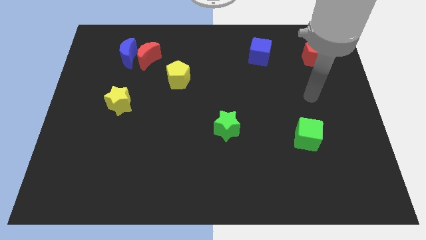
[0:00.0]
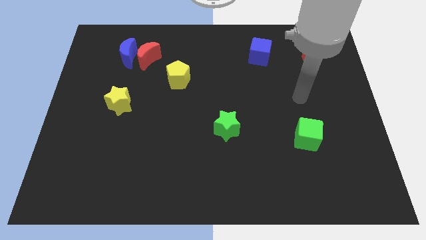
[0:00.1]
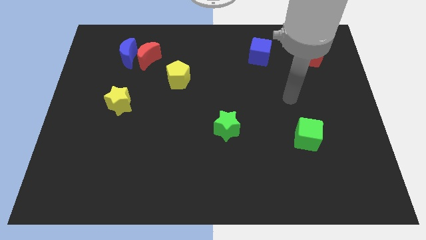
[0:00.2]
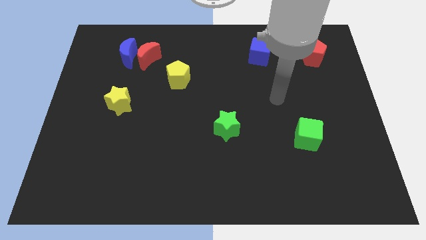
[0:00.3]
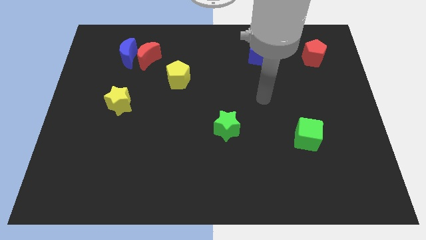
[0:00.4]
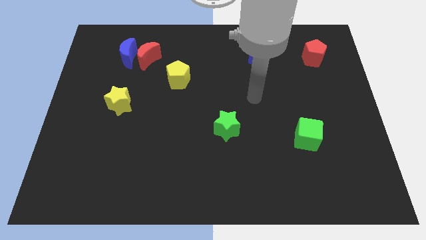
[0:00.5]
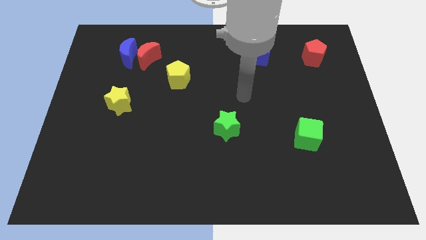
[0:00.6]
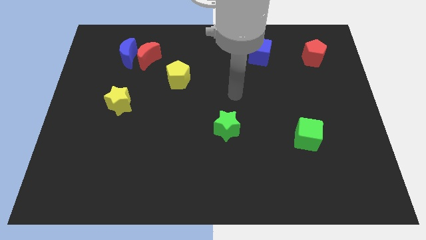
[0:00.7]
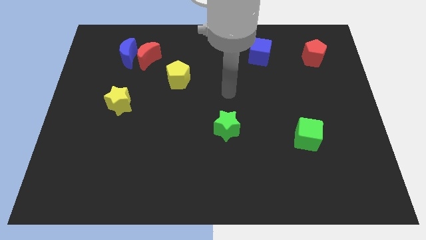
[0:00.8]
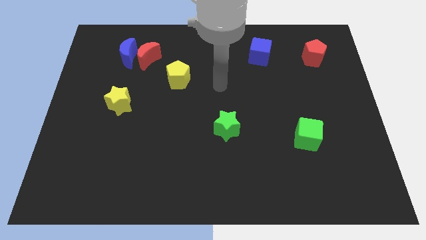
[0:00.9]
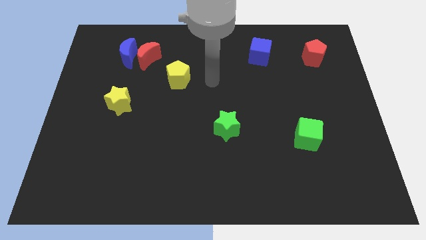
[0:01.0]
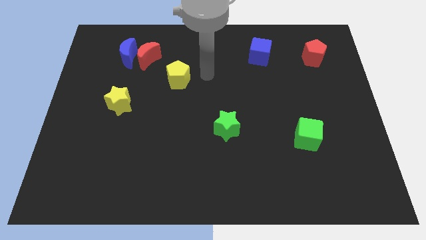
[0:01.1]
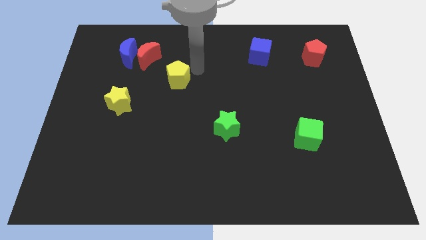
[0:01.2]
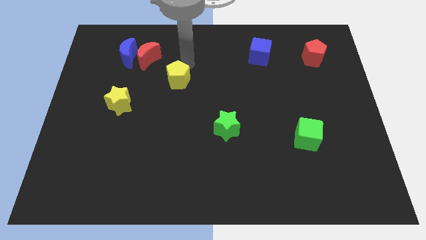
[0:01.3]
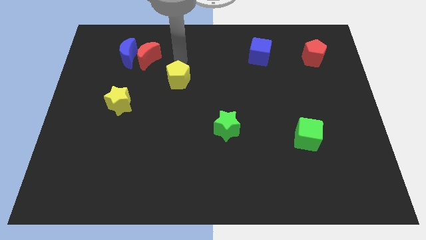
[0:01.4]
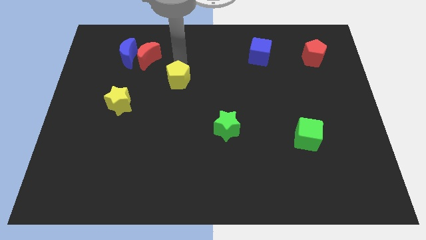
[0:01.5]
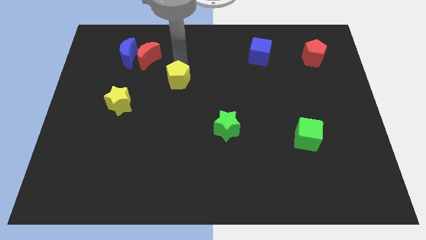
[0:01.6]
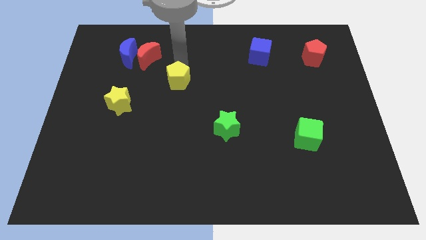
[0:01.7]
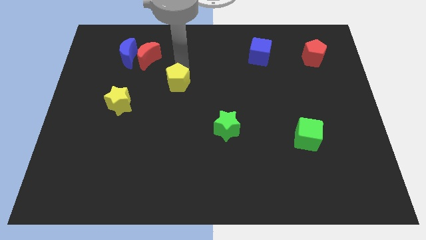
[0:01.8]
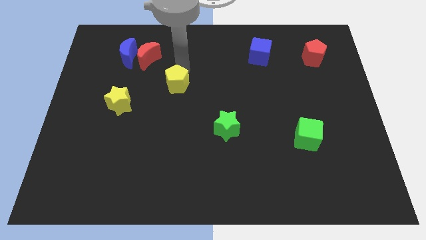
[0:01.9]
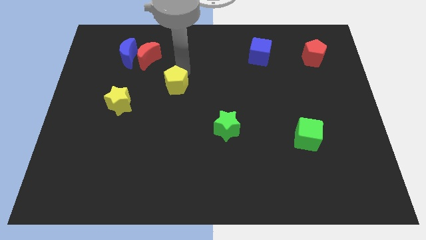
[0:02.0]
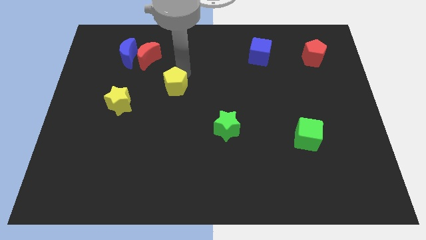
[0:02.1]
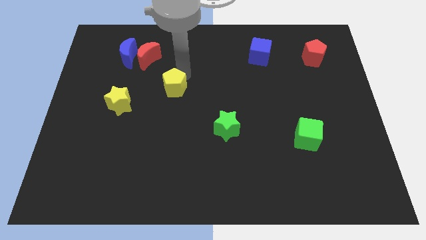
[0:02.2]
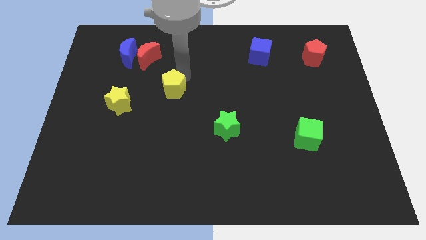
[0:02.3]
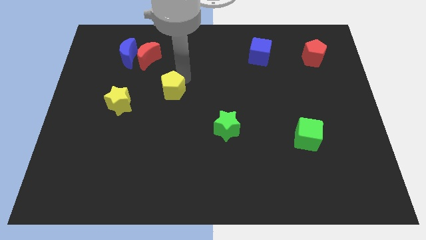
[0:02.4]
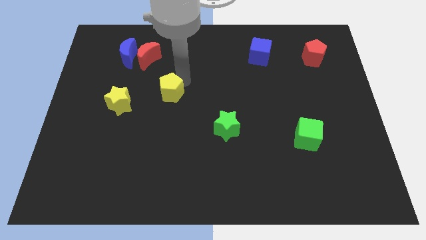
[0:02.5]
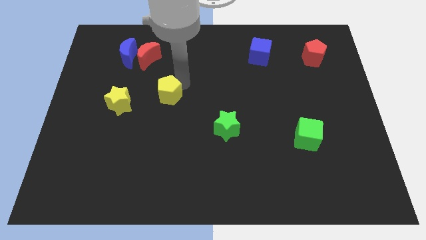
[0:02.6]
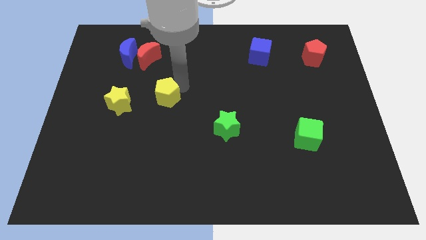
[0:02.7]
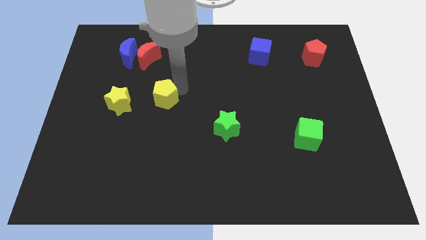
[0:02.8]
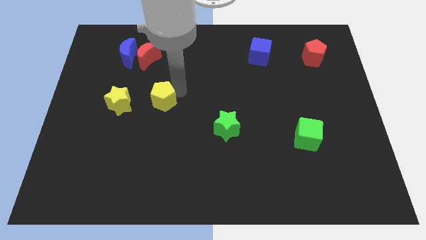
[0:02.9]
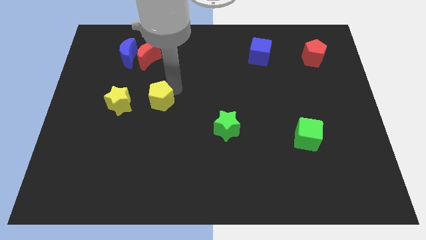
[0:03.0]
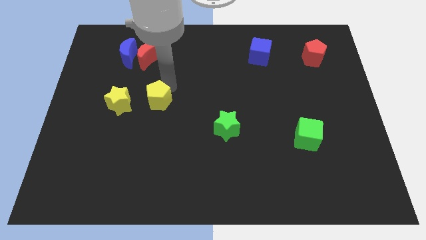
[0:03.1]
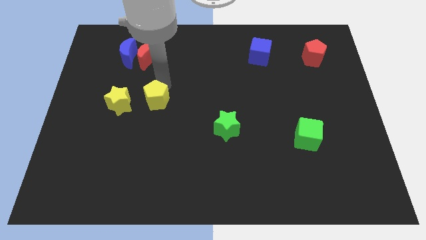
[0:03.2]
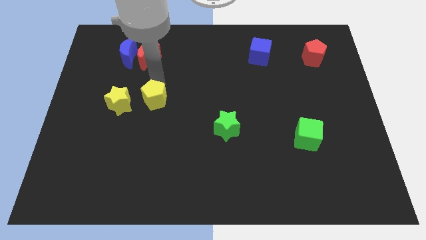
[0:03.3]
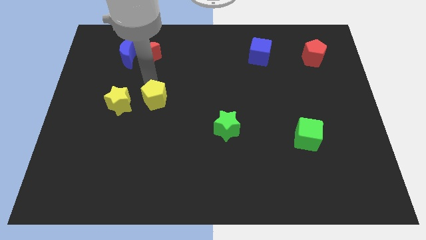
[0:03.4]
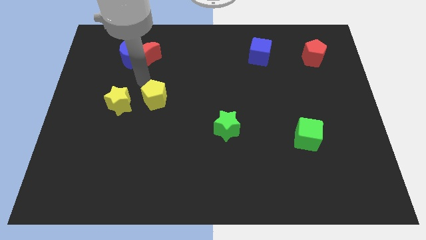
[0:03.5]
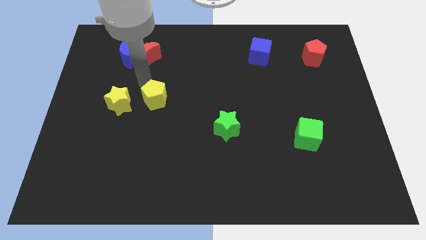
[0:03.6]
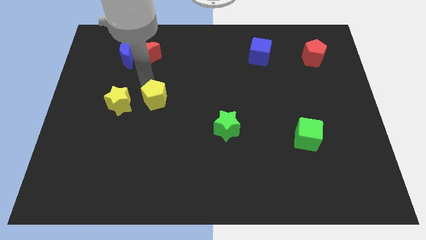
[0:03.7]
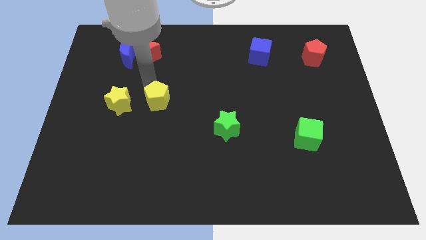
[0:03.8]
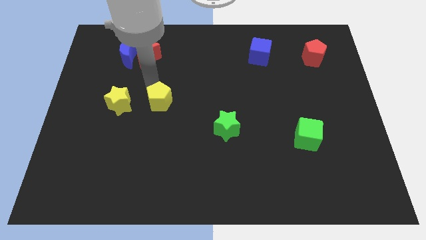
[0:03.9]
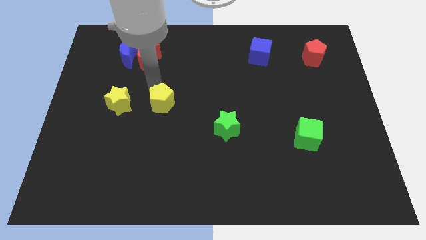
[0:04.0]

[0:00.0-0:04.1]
move the yellow pentagon a bit down

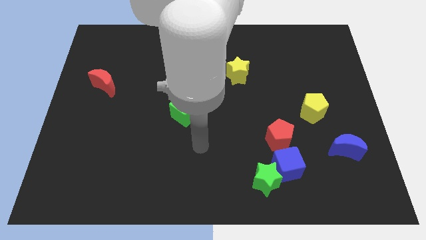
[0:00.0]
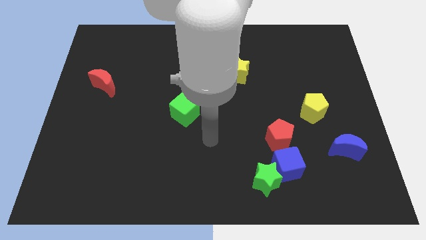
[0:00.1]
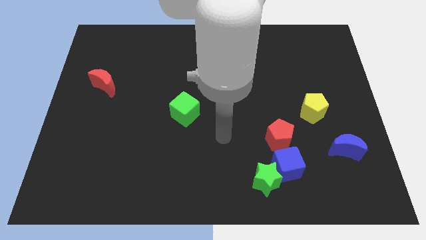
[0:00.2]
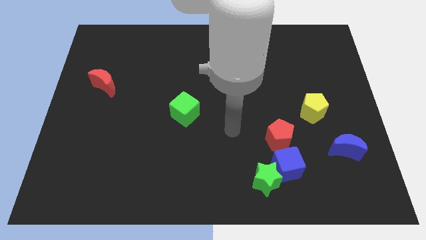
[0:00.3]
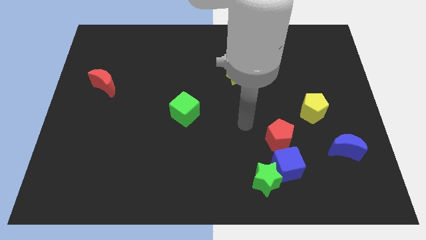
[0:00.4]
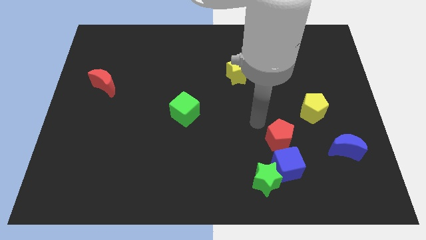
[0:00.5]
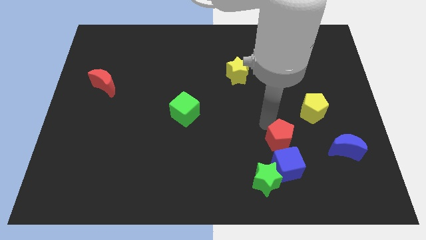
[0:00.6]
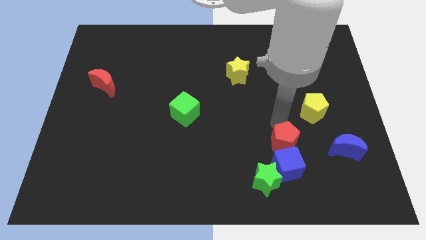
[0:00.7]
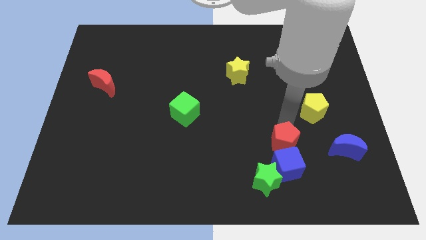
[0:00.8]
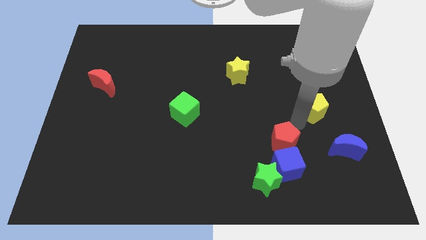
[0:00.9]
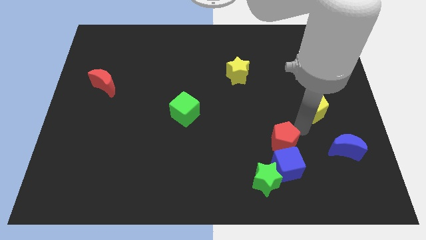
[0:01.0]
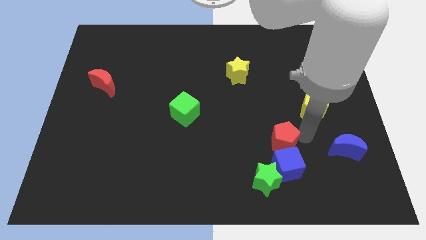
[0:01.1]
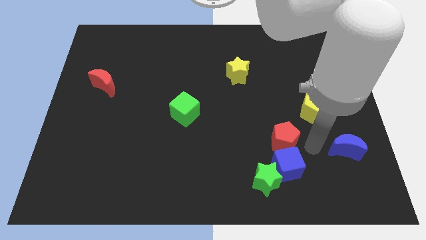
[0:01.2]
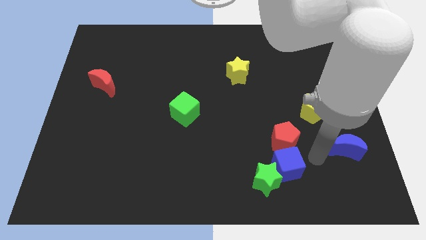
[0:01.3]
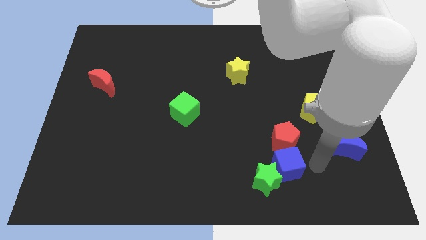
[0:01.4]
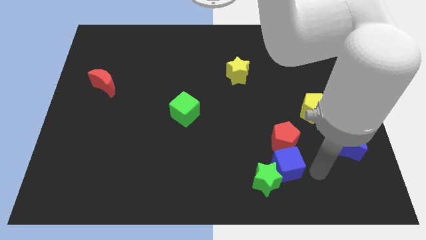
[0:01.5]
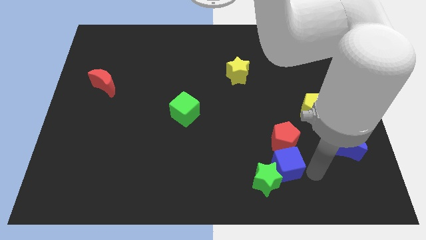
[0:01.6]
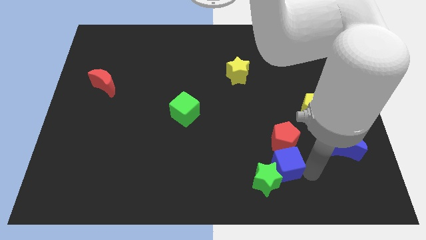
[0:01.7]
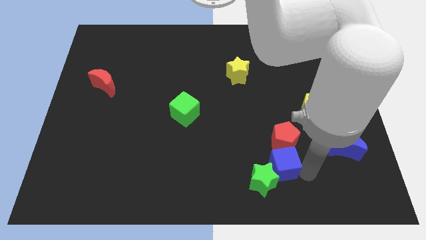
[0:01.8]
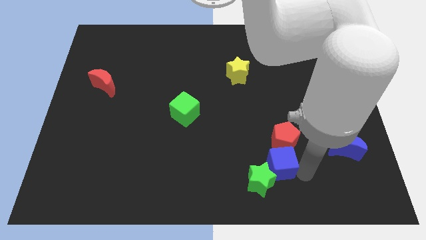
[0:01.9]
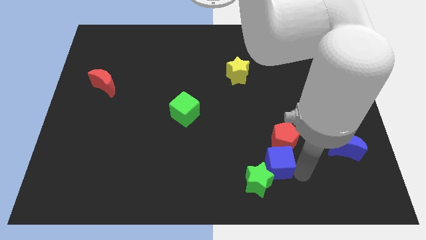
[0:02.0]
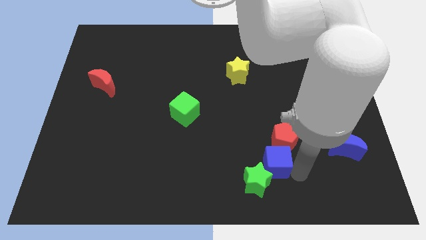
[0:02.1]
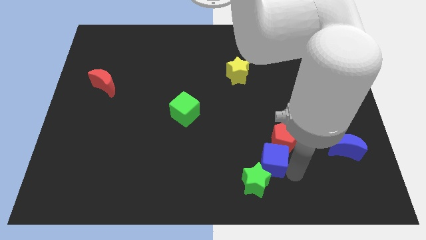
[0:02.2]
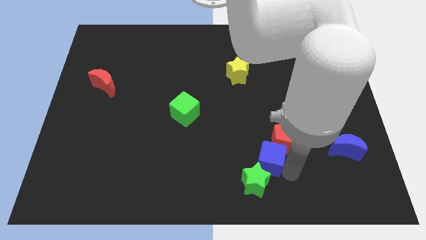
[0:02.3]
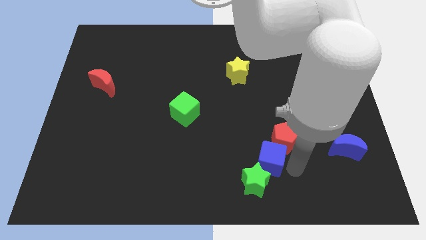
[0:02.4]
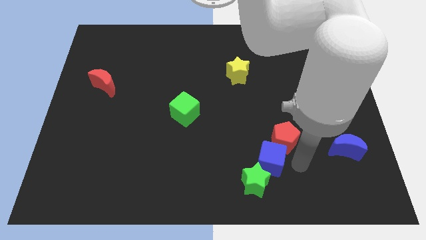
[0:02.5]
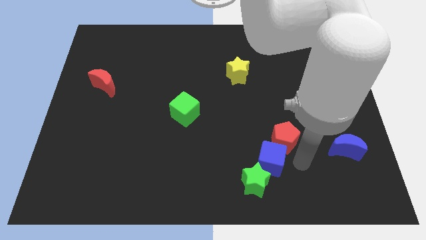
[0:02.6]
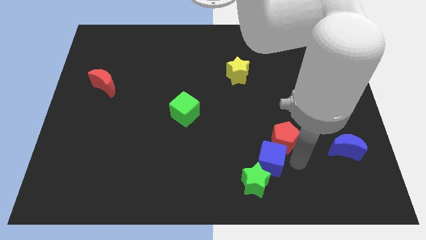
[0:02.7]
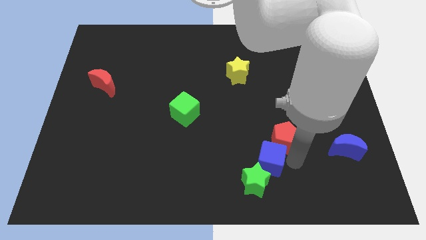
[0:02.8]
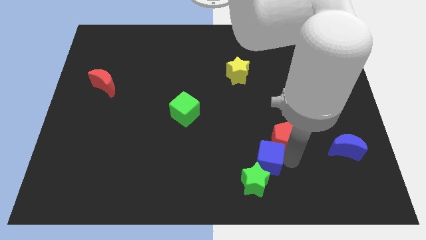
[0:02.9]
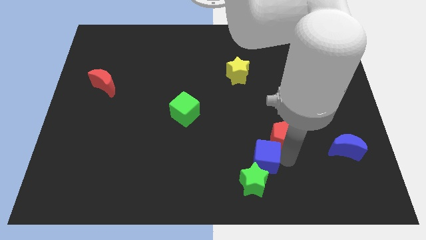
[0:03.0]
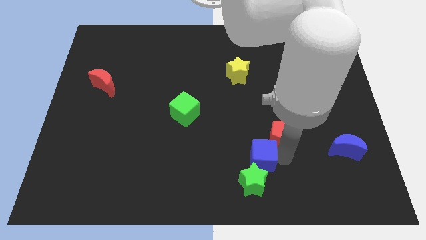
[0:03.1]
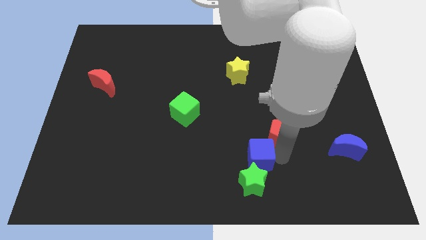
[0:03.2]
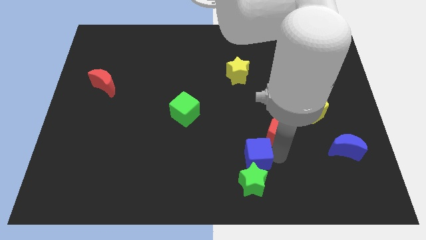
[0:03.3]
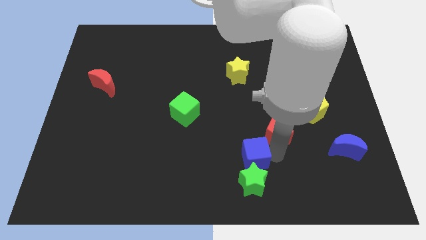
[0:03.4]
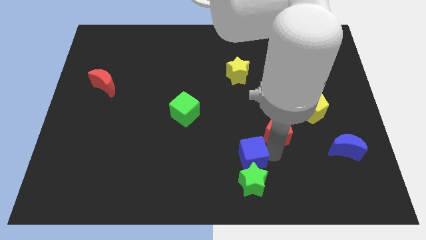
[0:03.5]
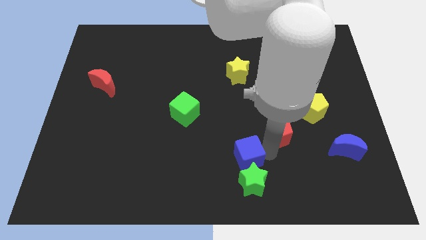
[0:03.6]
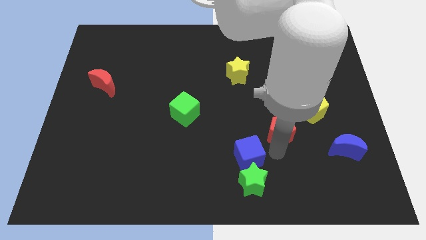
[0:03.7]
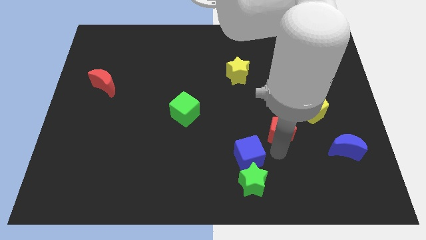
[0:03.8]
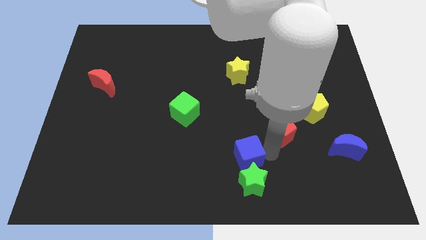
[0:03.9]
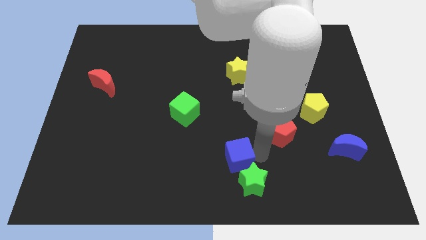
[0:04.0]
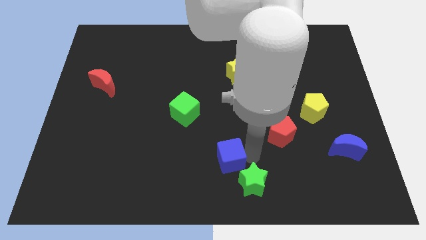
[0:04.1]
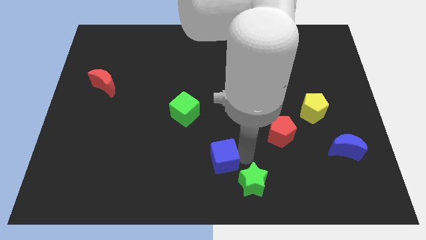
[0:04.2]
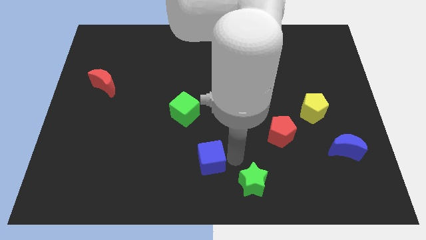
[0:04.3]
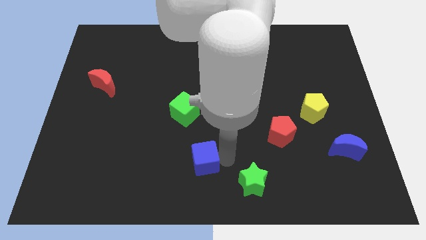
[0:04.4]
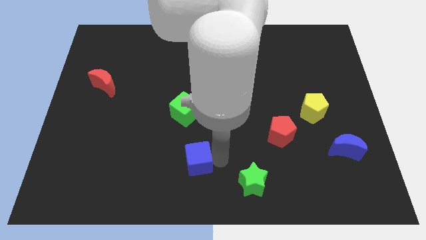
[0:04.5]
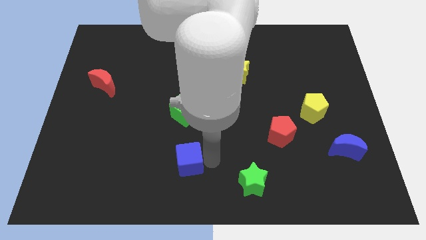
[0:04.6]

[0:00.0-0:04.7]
push the blue cube to the left
